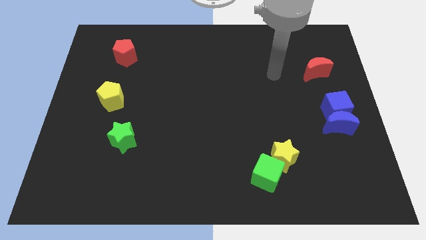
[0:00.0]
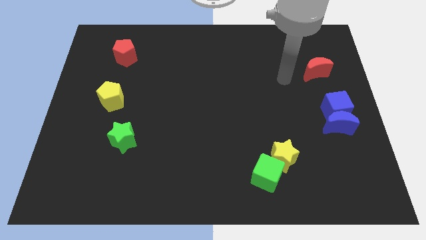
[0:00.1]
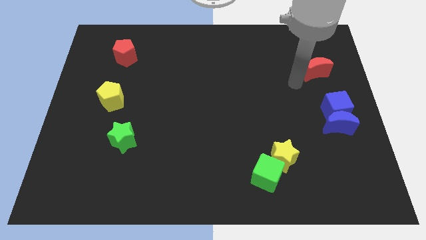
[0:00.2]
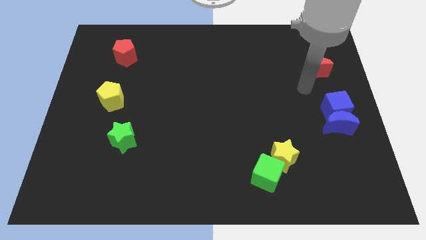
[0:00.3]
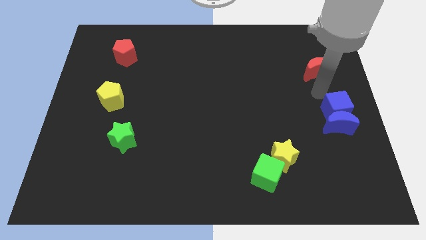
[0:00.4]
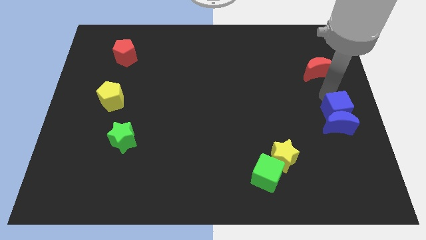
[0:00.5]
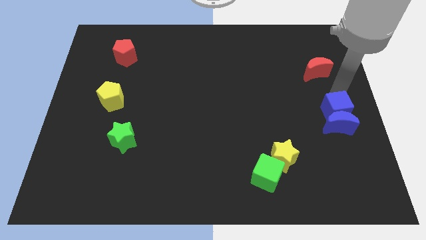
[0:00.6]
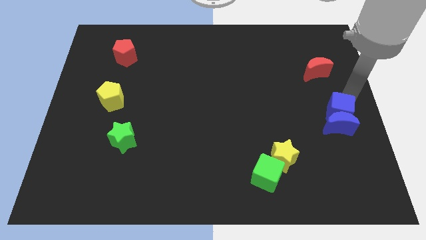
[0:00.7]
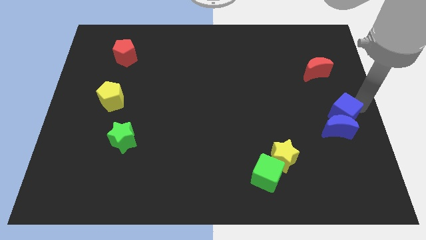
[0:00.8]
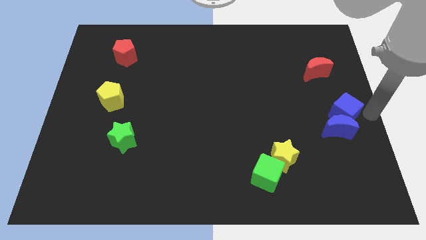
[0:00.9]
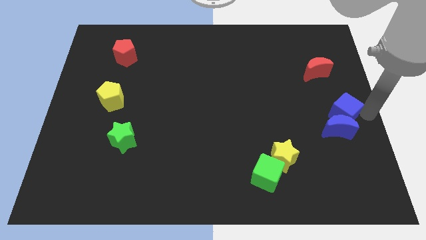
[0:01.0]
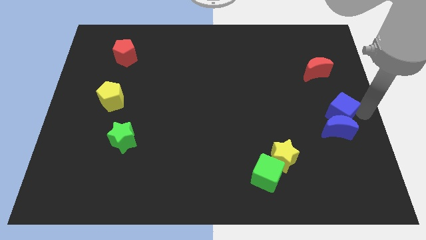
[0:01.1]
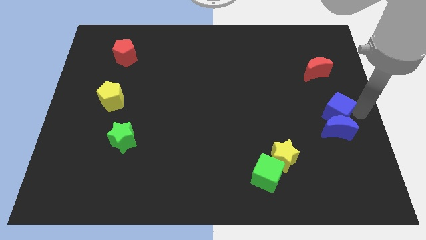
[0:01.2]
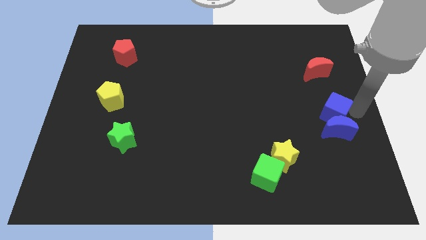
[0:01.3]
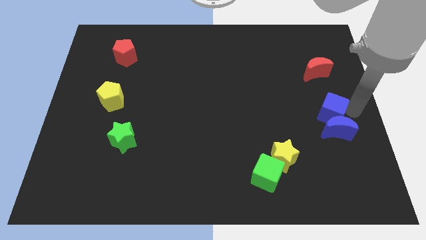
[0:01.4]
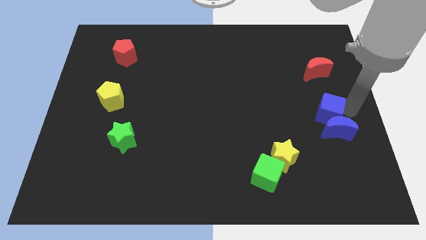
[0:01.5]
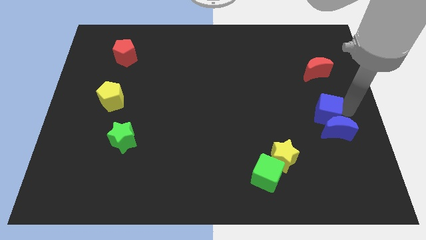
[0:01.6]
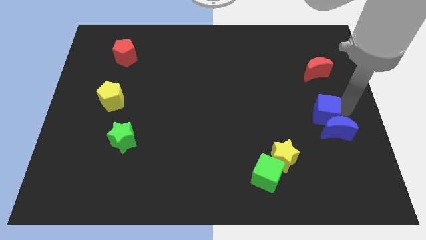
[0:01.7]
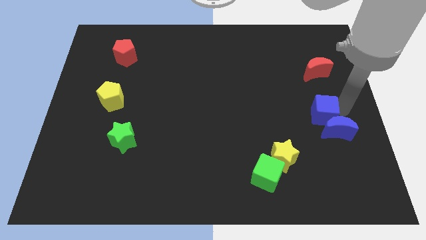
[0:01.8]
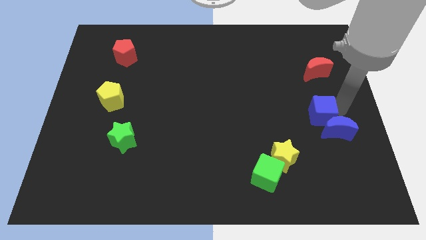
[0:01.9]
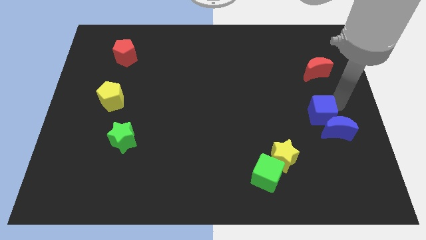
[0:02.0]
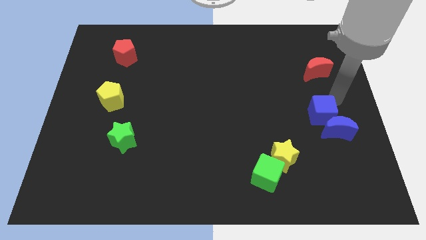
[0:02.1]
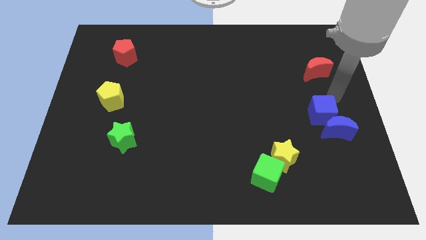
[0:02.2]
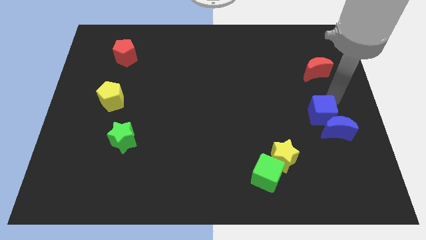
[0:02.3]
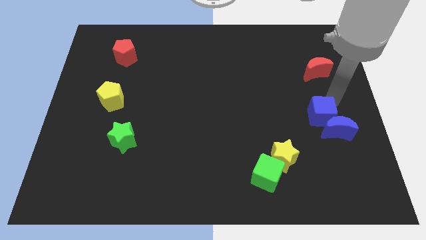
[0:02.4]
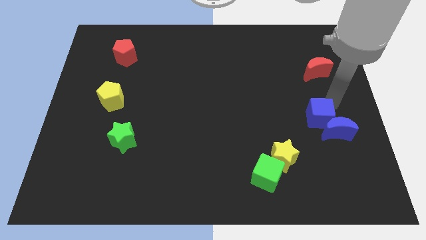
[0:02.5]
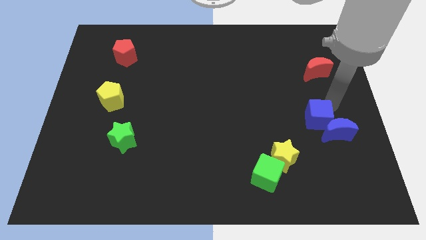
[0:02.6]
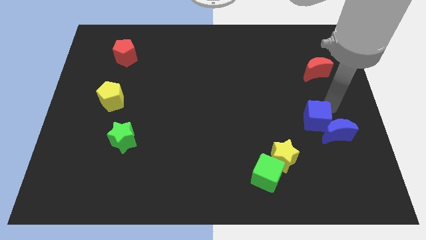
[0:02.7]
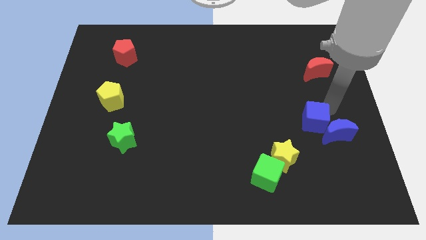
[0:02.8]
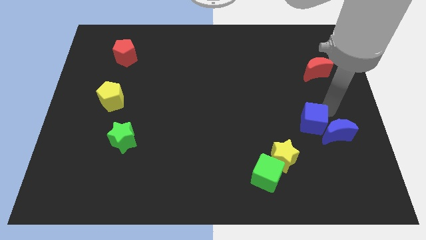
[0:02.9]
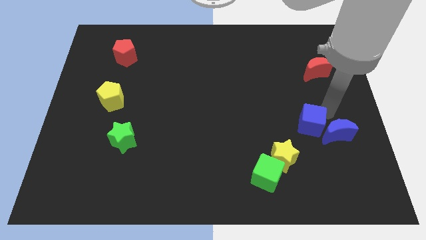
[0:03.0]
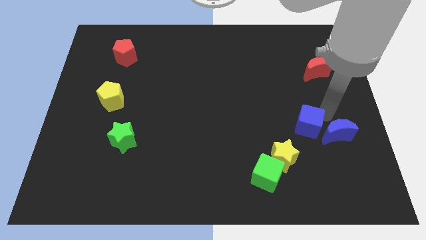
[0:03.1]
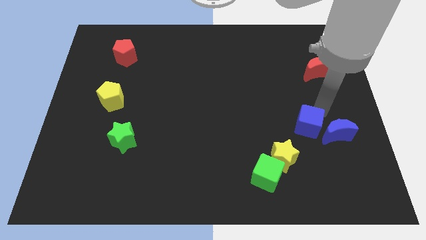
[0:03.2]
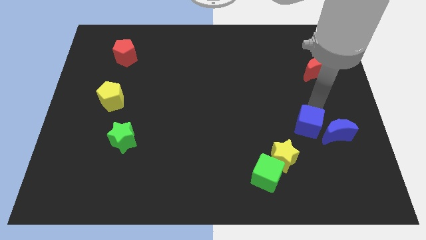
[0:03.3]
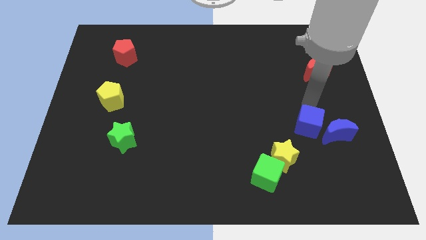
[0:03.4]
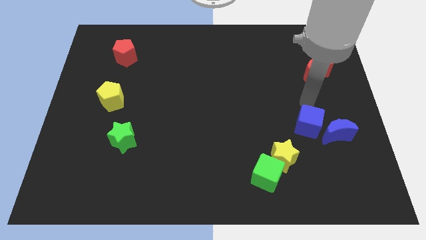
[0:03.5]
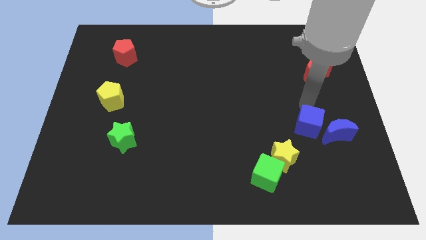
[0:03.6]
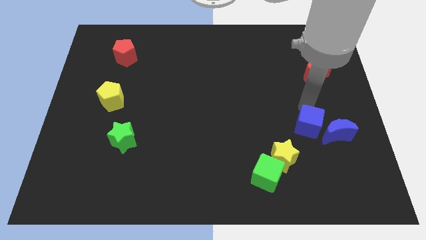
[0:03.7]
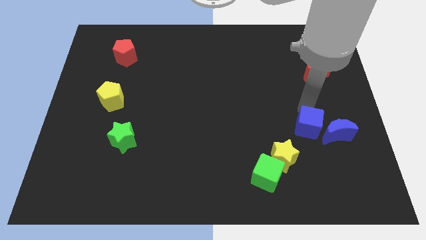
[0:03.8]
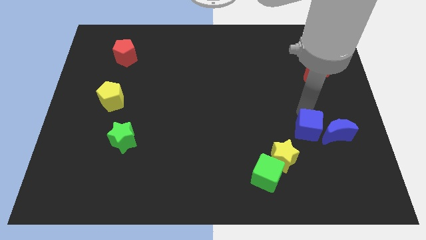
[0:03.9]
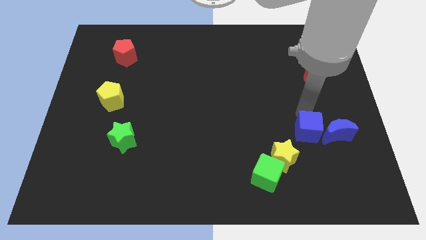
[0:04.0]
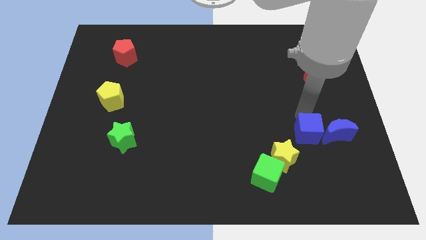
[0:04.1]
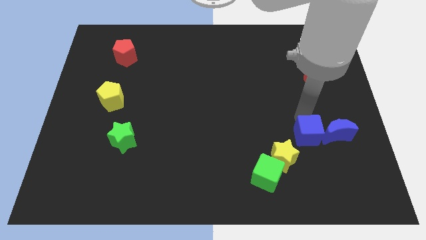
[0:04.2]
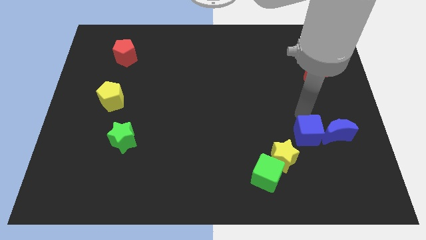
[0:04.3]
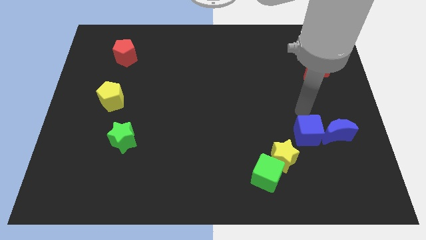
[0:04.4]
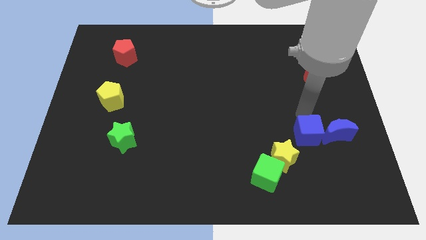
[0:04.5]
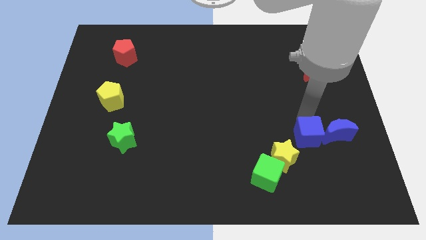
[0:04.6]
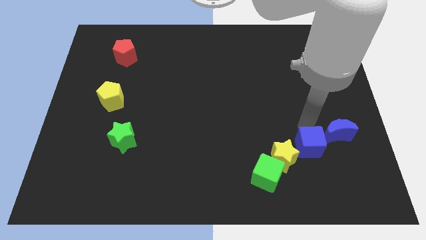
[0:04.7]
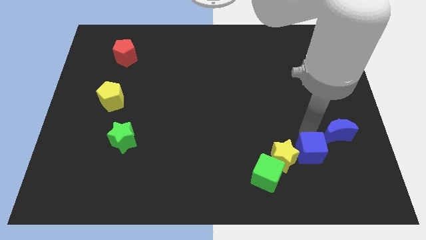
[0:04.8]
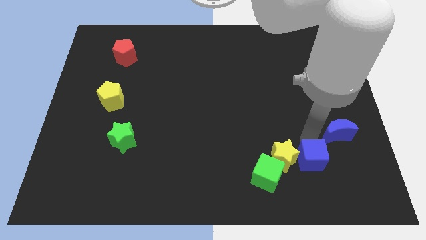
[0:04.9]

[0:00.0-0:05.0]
put the blue cube just right of the green cube

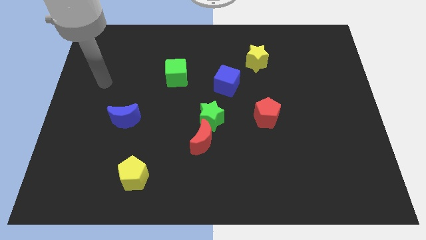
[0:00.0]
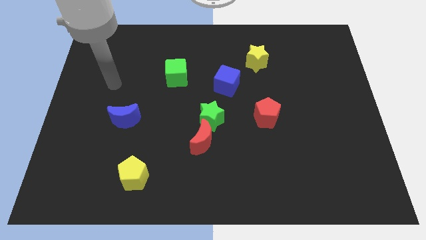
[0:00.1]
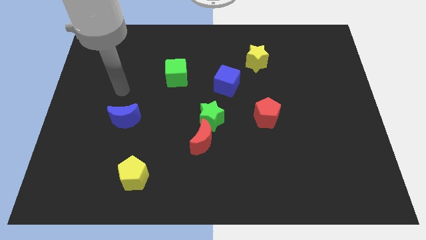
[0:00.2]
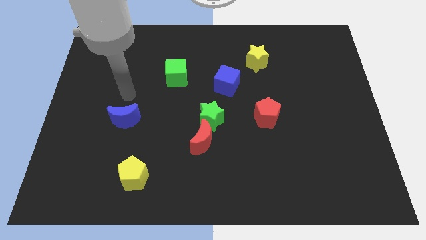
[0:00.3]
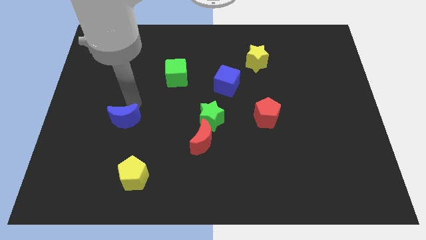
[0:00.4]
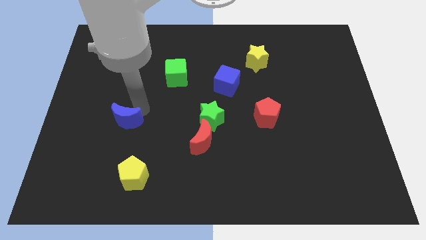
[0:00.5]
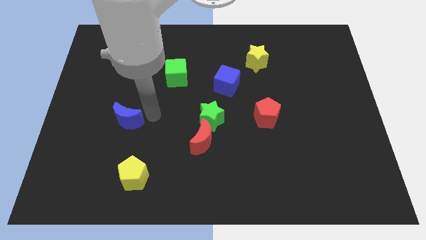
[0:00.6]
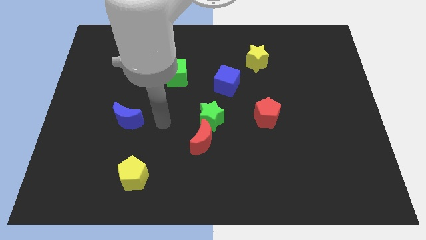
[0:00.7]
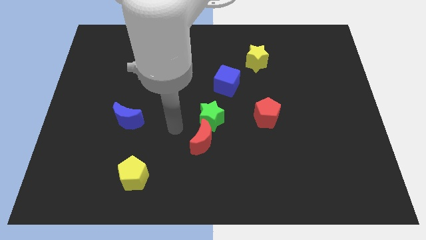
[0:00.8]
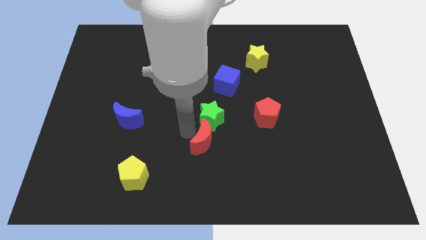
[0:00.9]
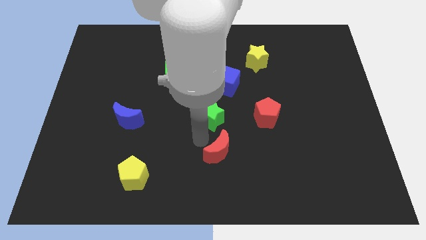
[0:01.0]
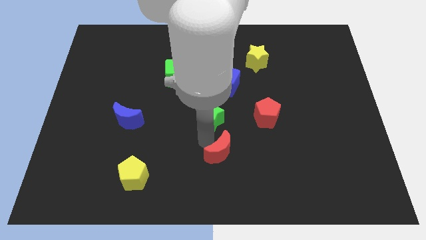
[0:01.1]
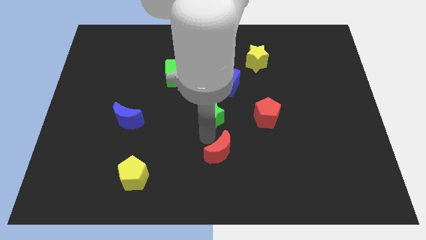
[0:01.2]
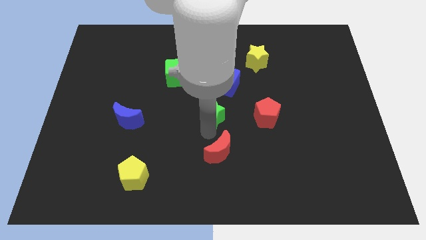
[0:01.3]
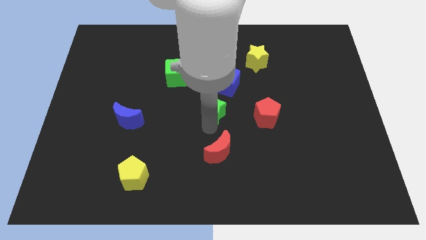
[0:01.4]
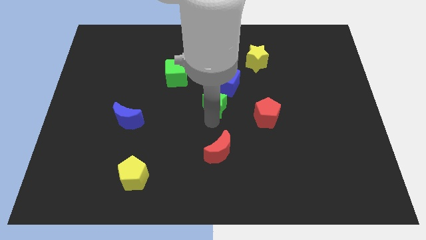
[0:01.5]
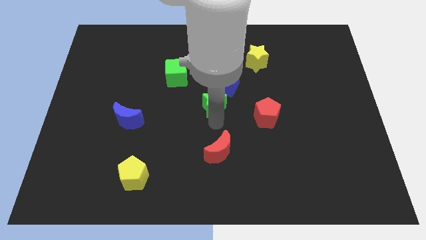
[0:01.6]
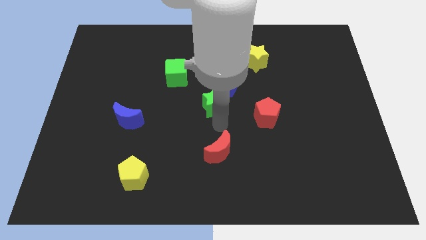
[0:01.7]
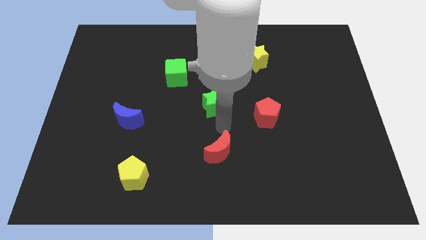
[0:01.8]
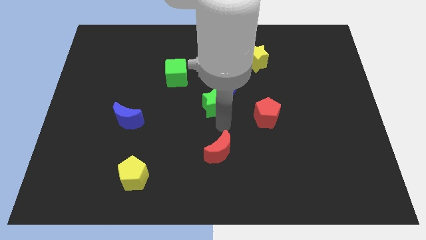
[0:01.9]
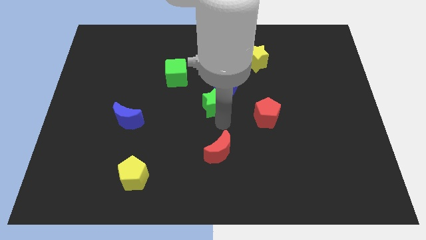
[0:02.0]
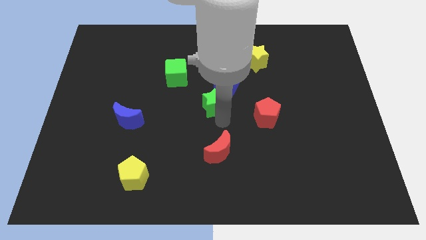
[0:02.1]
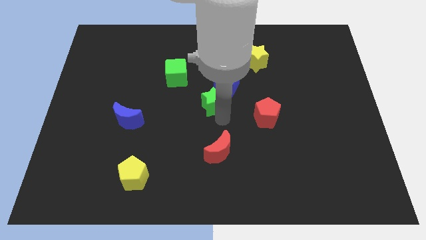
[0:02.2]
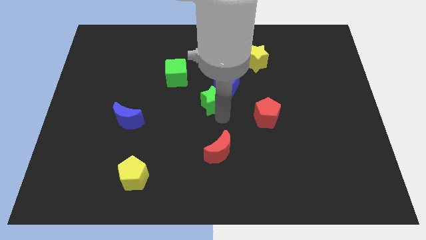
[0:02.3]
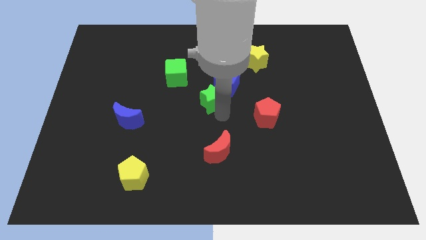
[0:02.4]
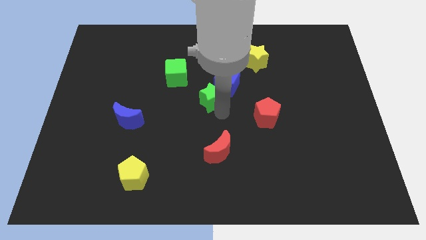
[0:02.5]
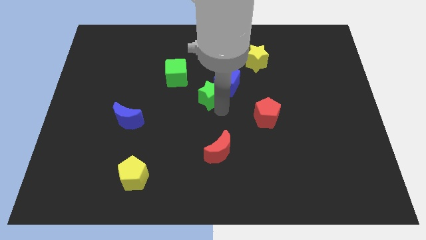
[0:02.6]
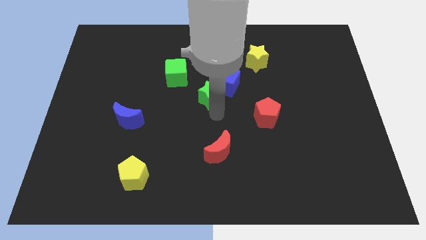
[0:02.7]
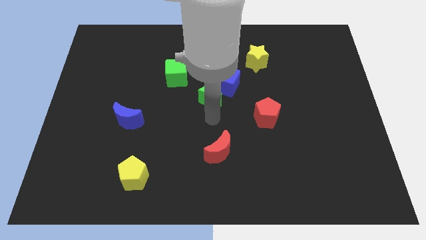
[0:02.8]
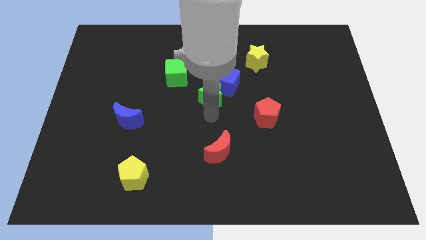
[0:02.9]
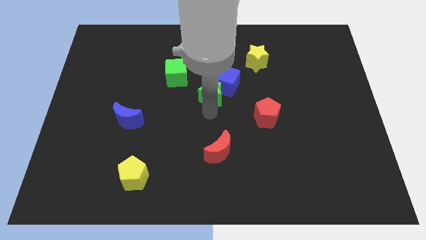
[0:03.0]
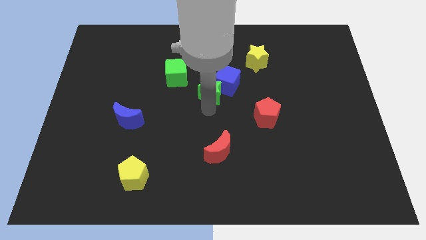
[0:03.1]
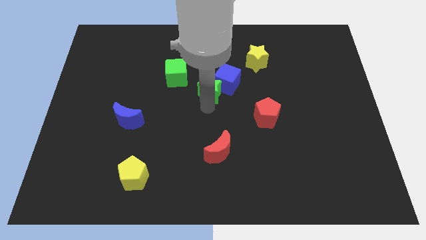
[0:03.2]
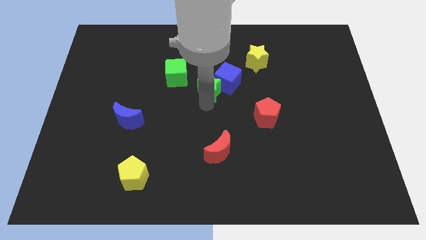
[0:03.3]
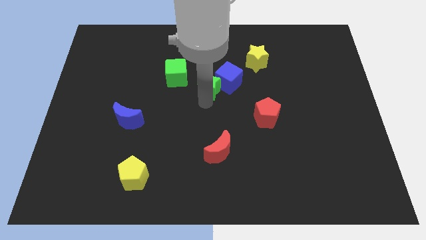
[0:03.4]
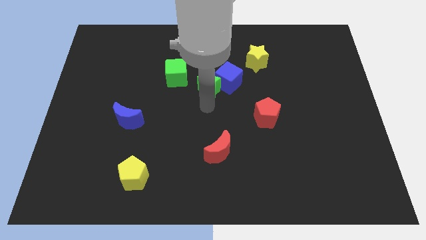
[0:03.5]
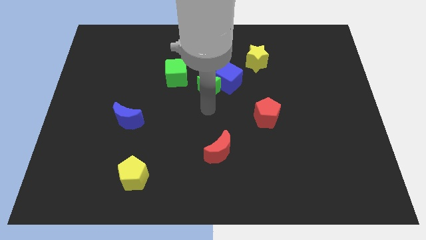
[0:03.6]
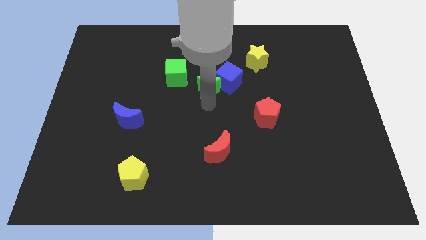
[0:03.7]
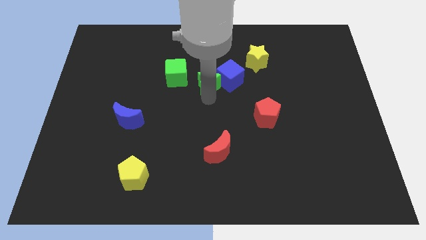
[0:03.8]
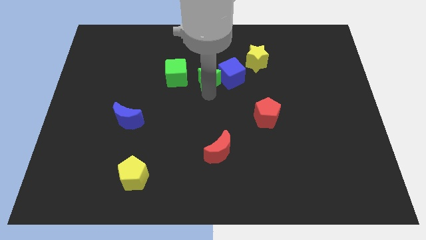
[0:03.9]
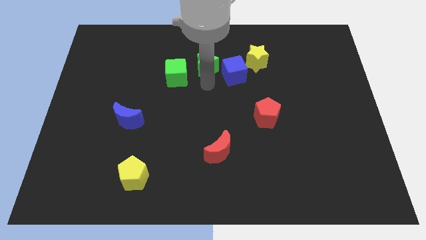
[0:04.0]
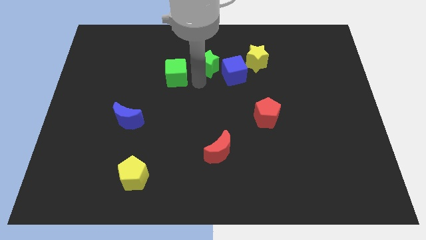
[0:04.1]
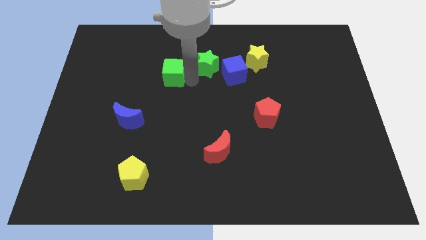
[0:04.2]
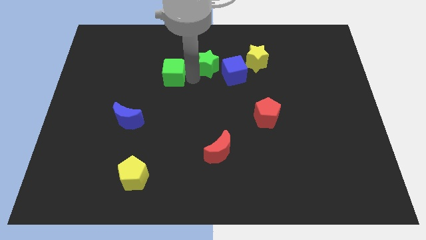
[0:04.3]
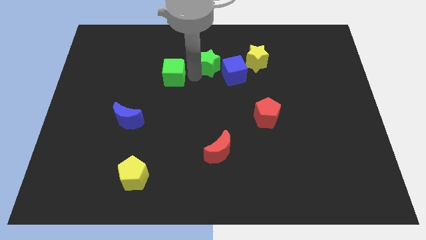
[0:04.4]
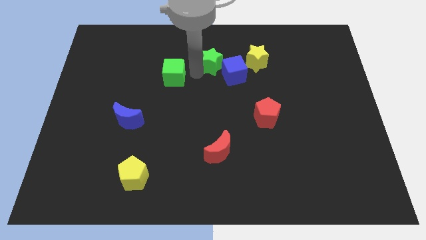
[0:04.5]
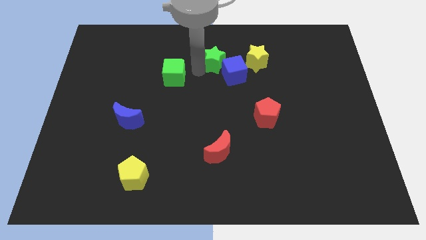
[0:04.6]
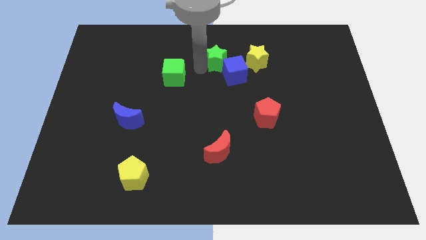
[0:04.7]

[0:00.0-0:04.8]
move the green star to the top of the blue cube
